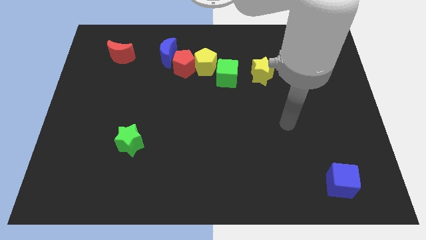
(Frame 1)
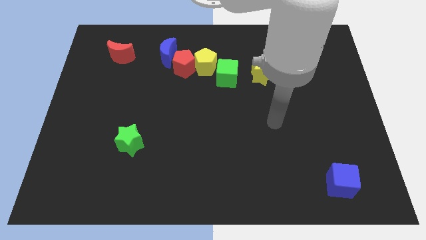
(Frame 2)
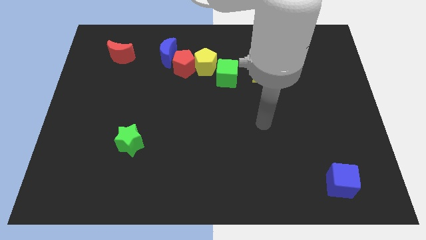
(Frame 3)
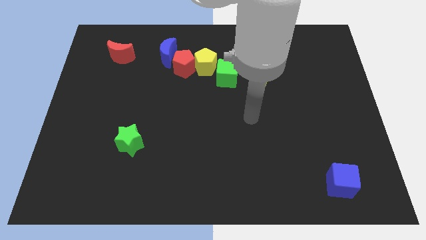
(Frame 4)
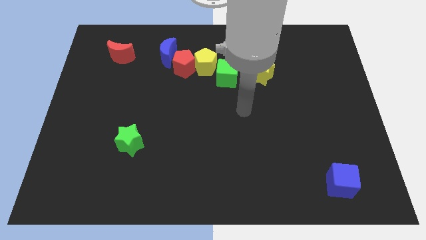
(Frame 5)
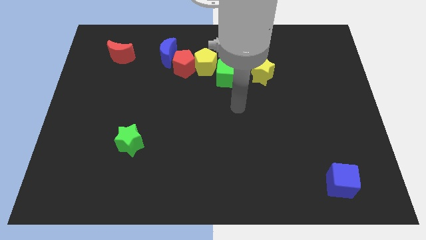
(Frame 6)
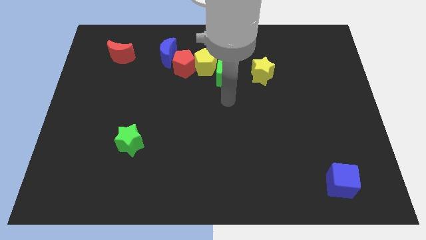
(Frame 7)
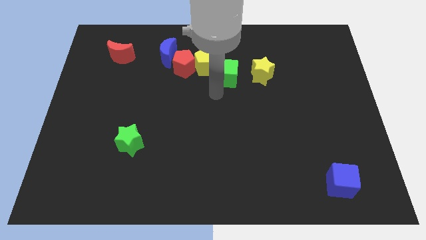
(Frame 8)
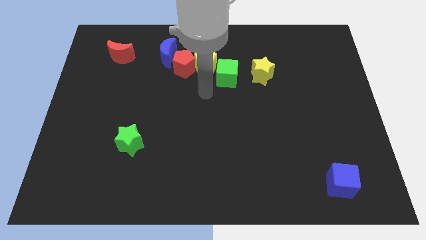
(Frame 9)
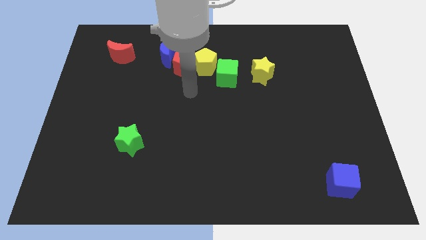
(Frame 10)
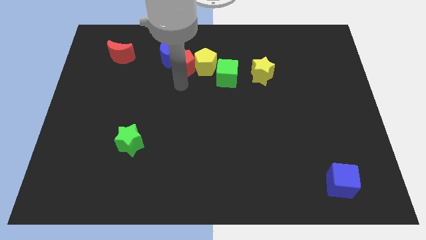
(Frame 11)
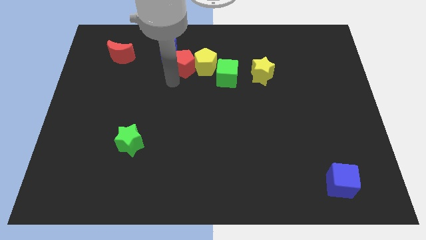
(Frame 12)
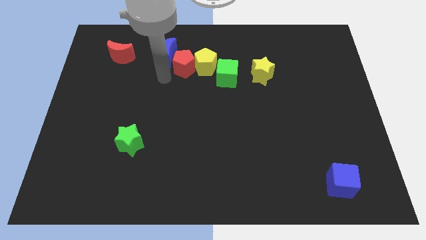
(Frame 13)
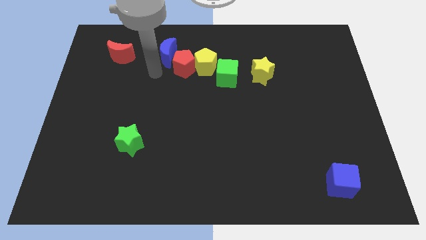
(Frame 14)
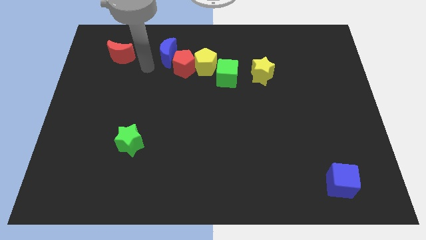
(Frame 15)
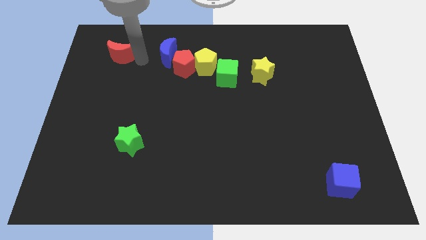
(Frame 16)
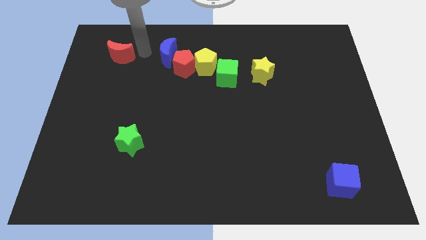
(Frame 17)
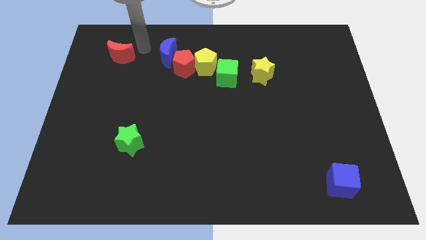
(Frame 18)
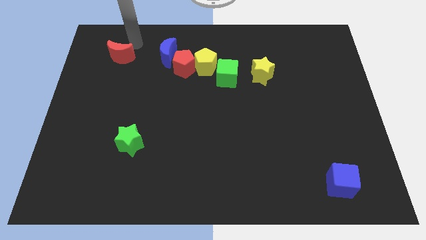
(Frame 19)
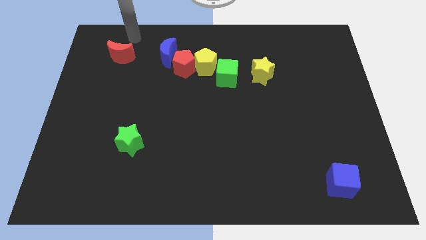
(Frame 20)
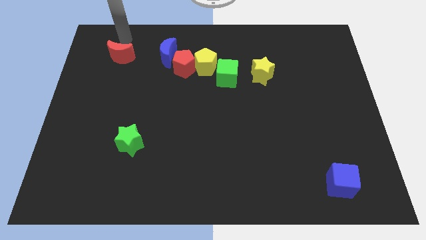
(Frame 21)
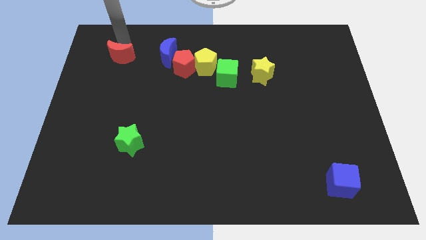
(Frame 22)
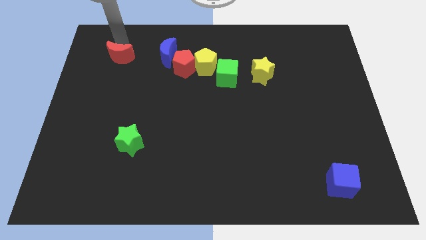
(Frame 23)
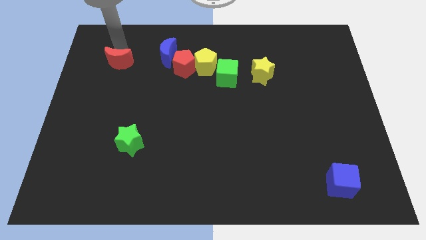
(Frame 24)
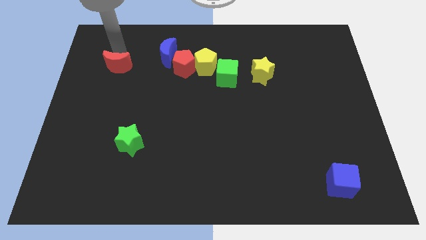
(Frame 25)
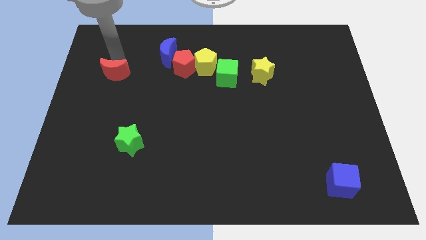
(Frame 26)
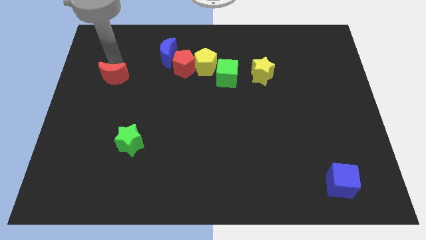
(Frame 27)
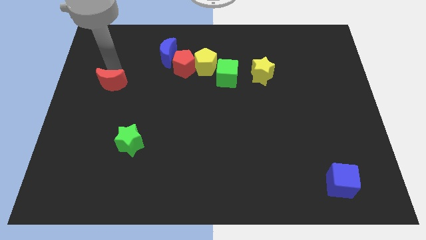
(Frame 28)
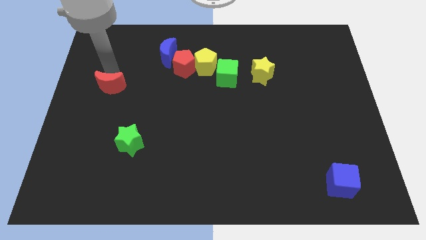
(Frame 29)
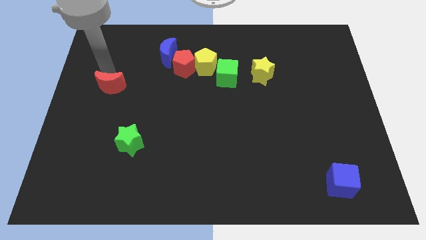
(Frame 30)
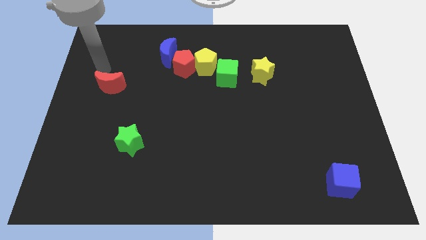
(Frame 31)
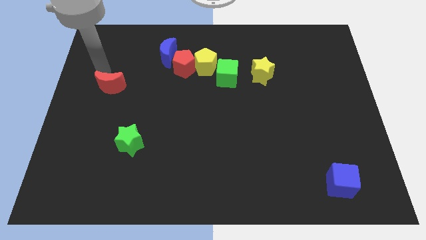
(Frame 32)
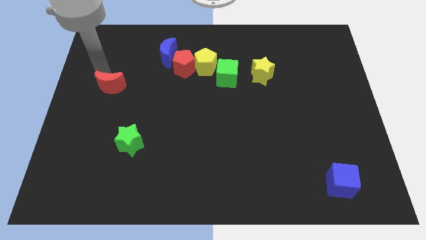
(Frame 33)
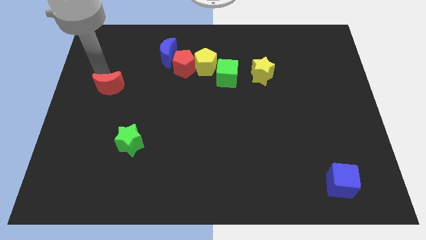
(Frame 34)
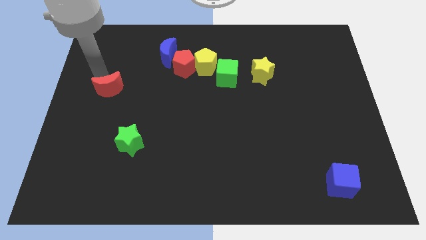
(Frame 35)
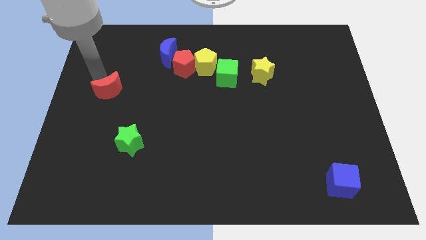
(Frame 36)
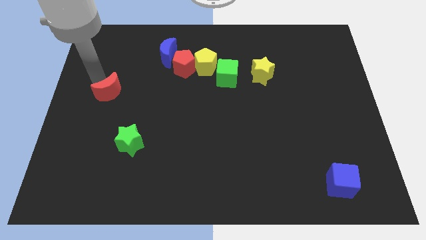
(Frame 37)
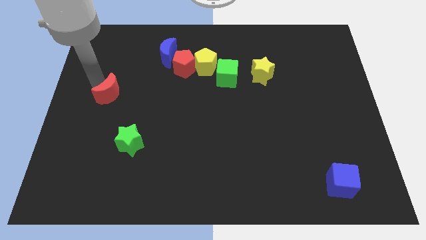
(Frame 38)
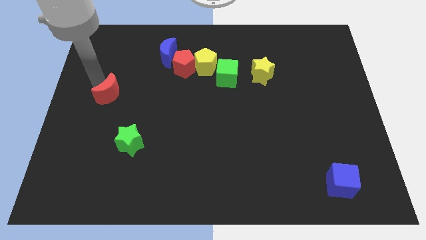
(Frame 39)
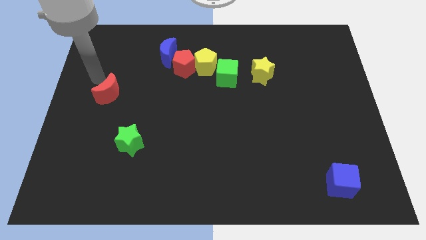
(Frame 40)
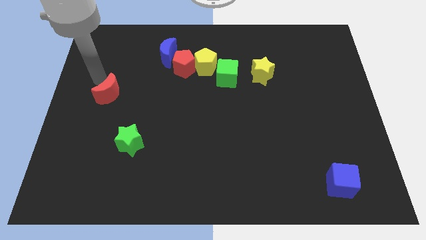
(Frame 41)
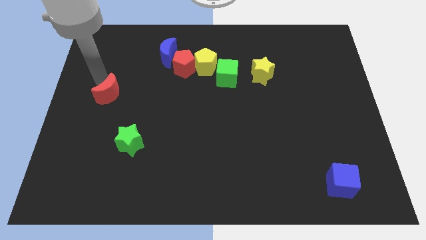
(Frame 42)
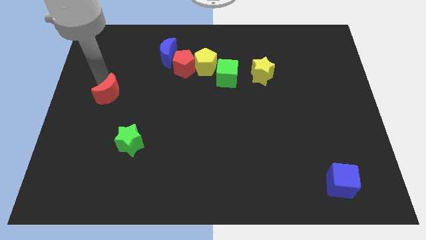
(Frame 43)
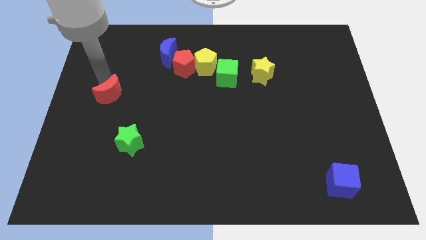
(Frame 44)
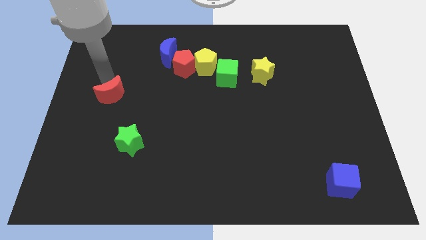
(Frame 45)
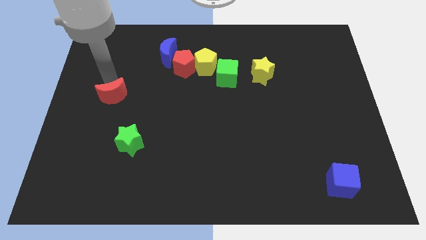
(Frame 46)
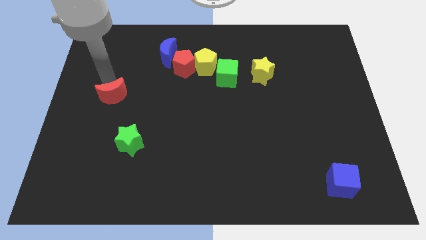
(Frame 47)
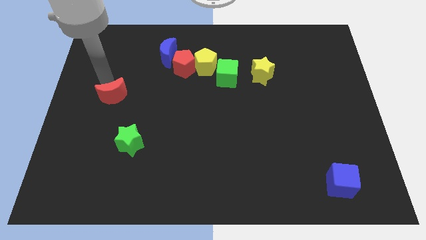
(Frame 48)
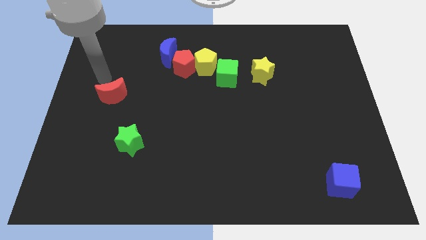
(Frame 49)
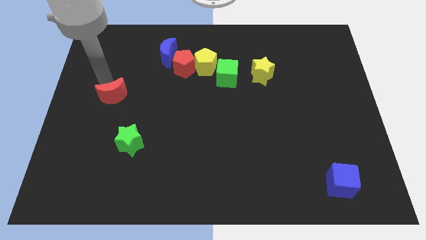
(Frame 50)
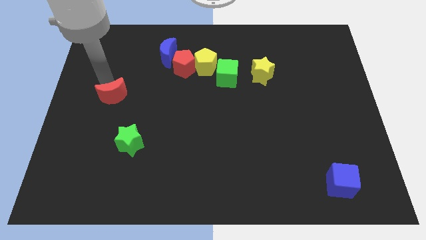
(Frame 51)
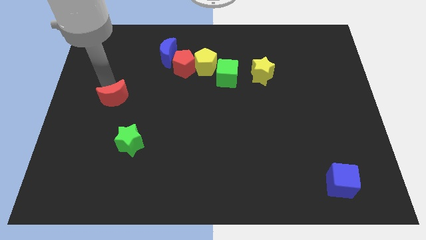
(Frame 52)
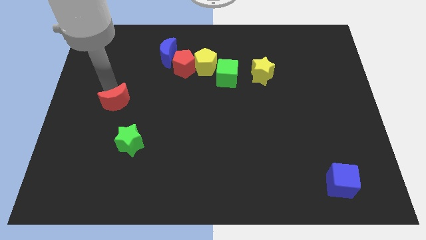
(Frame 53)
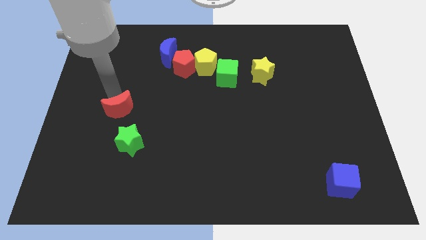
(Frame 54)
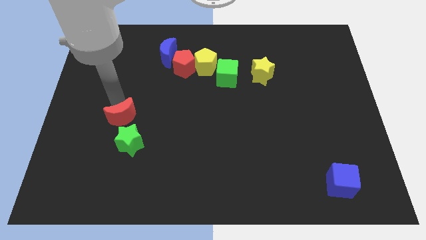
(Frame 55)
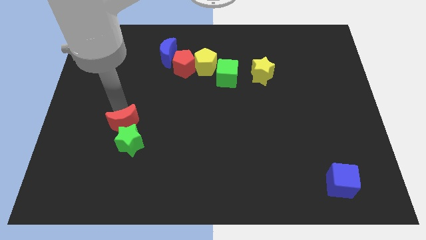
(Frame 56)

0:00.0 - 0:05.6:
move the red moon next to the green star

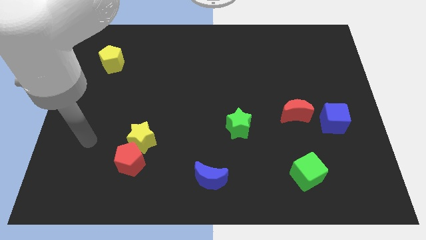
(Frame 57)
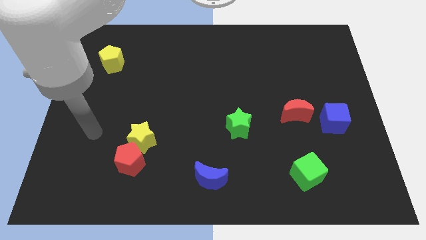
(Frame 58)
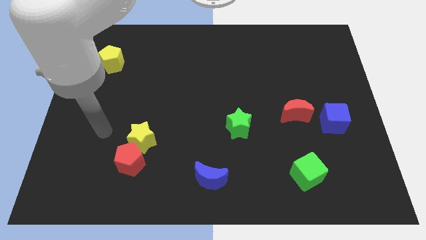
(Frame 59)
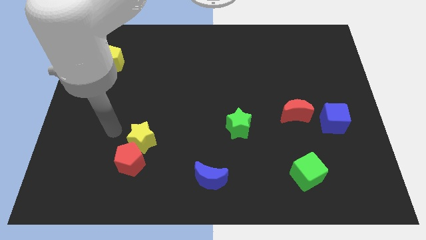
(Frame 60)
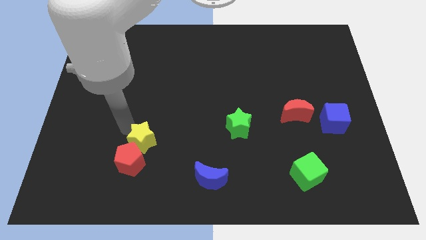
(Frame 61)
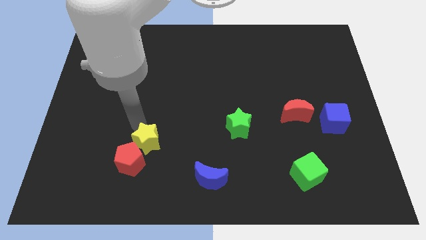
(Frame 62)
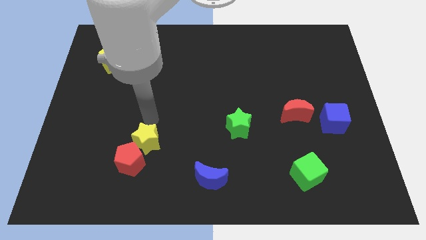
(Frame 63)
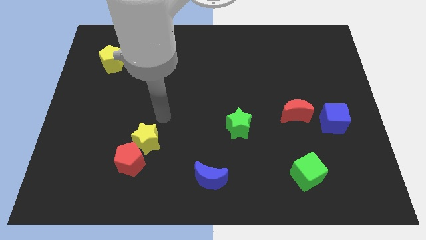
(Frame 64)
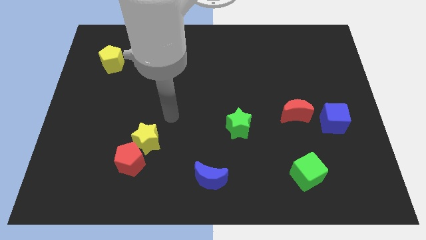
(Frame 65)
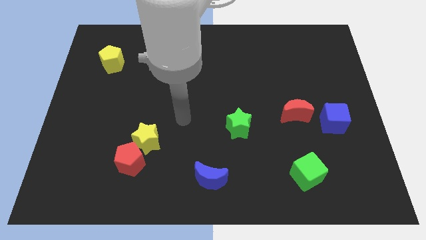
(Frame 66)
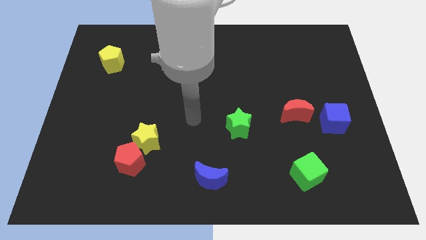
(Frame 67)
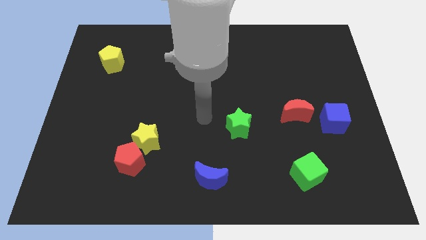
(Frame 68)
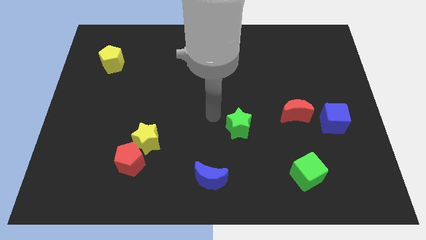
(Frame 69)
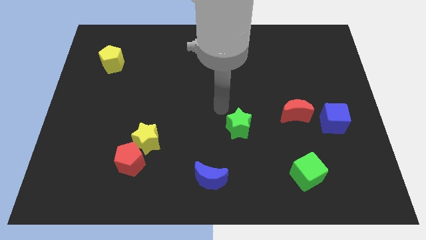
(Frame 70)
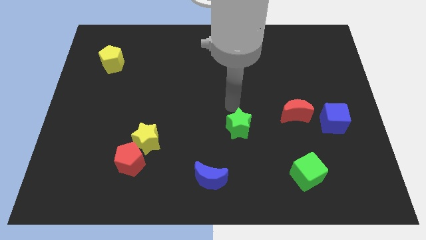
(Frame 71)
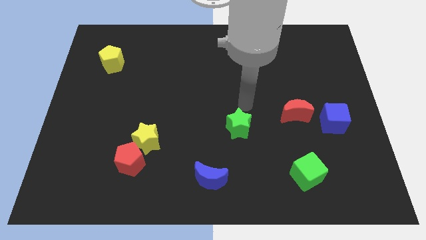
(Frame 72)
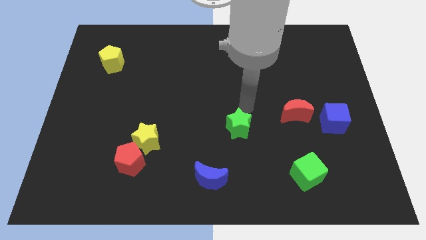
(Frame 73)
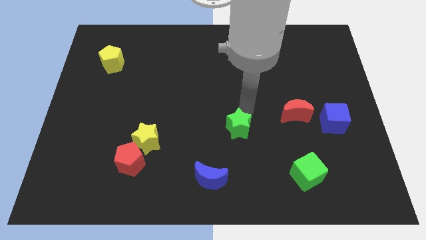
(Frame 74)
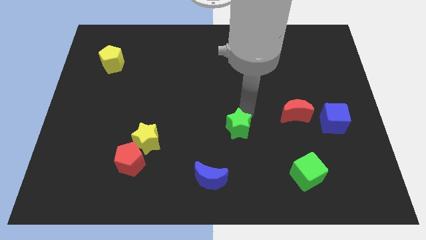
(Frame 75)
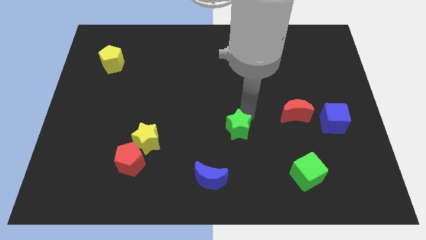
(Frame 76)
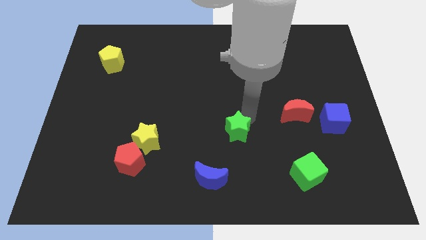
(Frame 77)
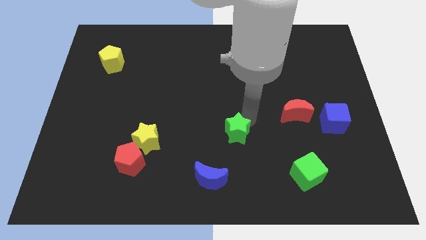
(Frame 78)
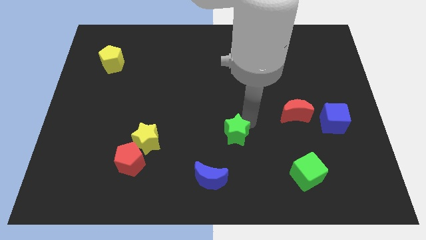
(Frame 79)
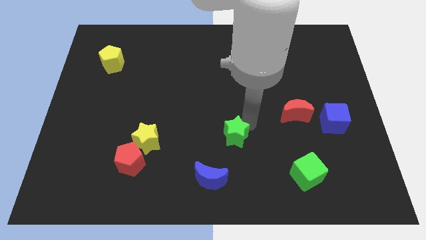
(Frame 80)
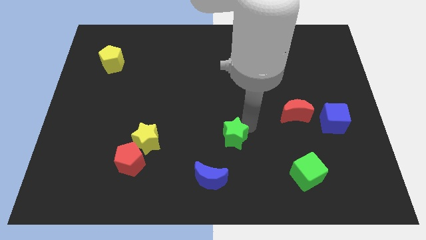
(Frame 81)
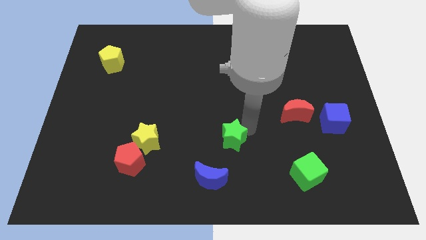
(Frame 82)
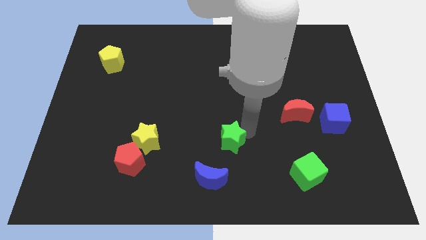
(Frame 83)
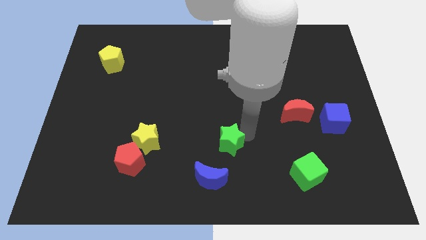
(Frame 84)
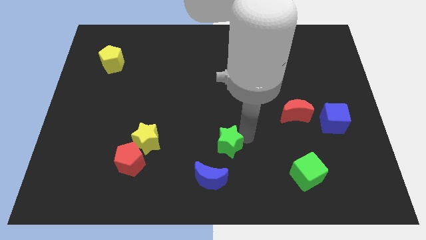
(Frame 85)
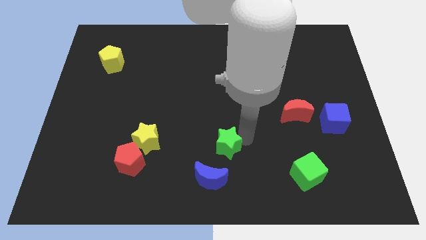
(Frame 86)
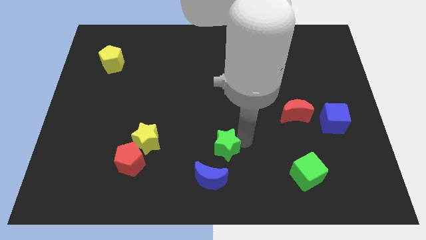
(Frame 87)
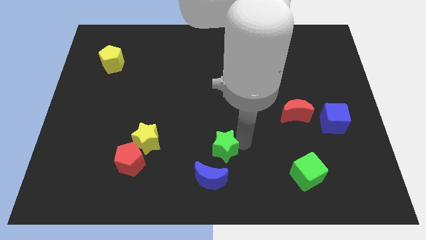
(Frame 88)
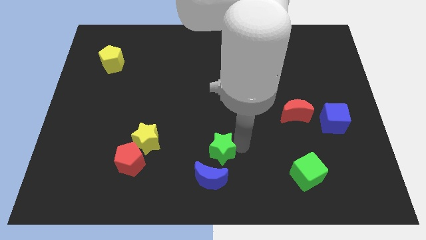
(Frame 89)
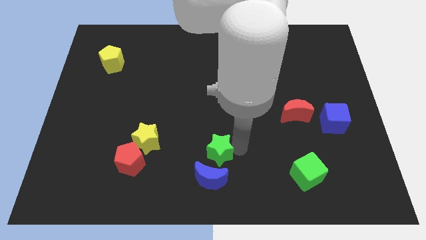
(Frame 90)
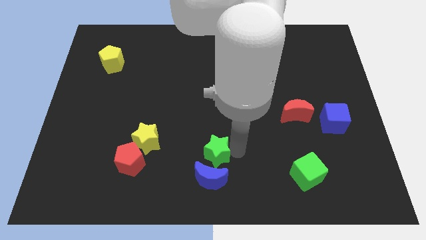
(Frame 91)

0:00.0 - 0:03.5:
put the green star to the blue moon
